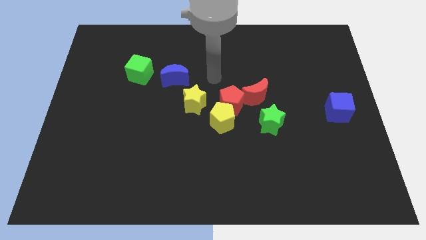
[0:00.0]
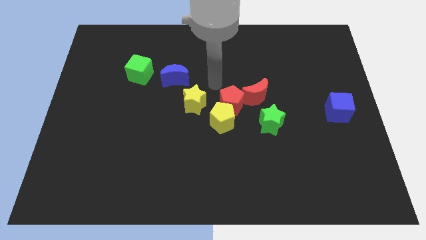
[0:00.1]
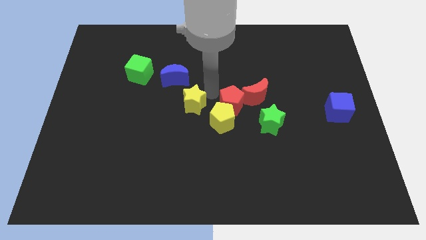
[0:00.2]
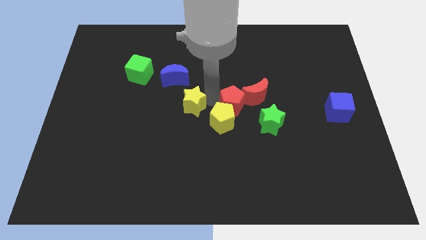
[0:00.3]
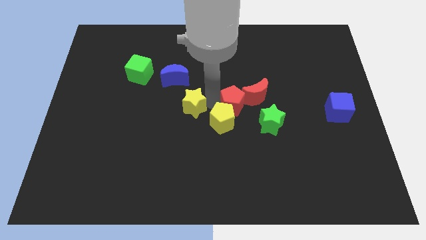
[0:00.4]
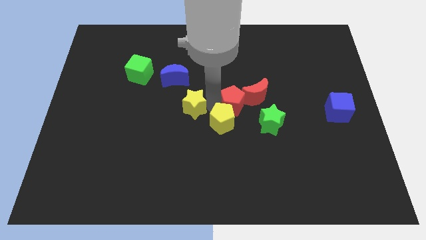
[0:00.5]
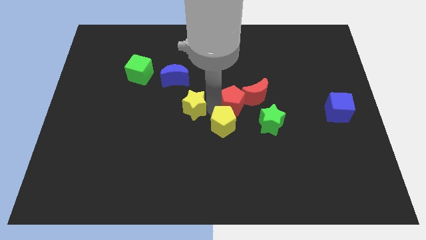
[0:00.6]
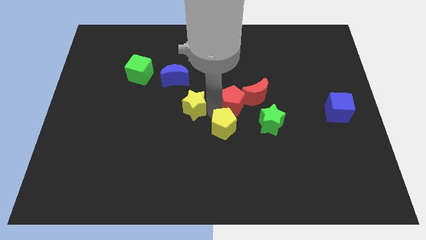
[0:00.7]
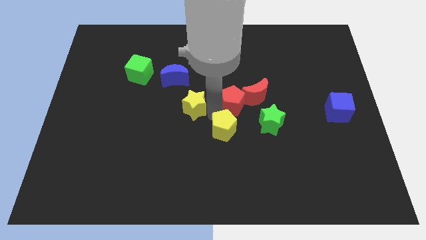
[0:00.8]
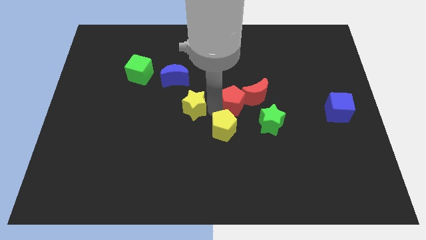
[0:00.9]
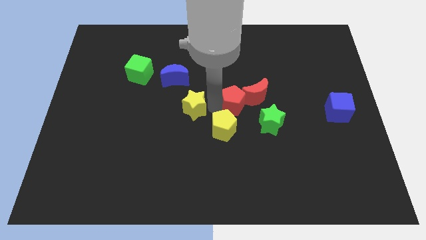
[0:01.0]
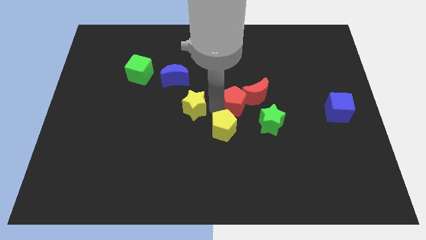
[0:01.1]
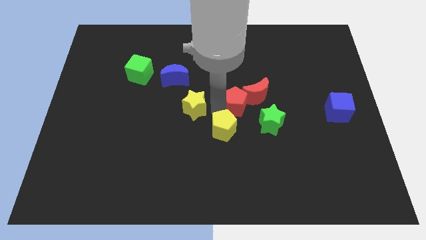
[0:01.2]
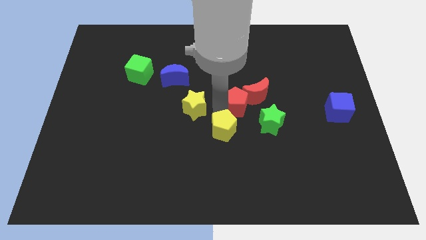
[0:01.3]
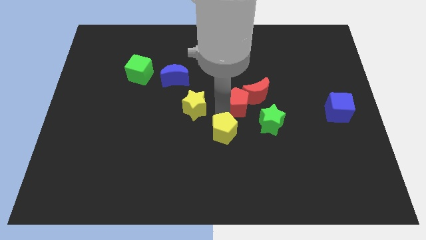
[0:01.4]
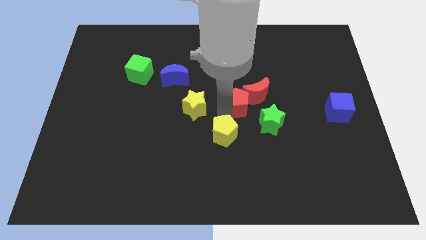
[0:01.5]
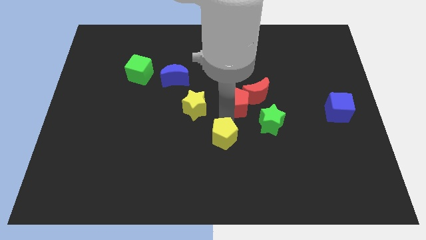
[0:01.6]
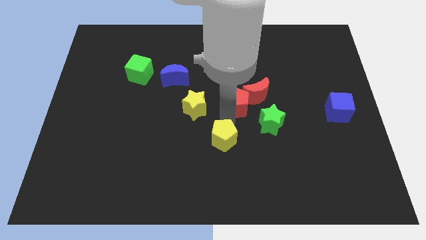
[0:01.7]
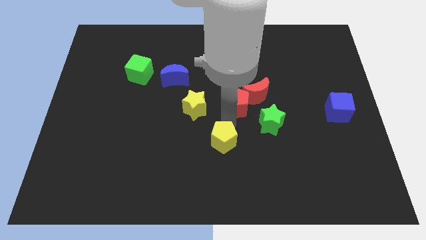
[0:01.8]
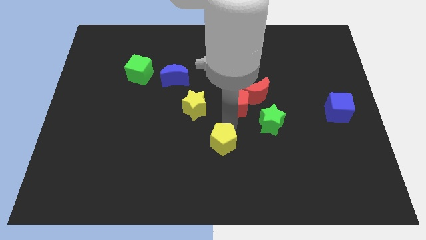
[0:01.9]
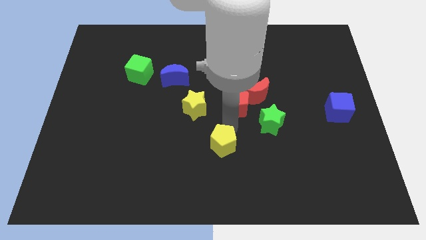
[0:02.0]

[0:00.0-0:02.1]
pull the yellow pentagon apart from the red pentagon and yellow star

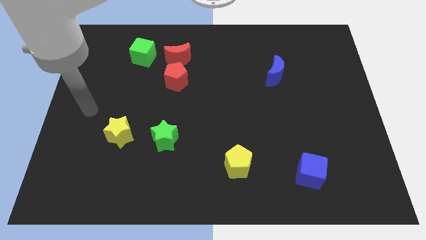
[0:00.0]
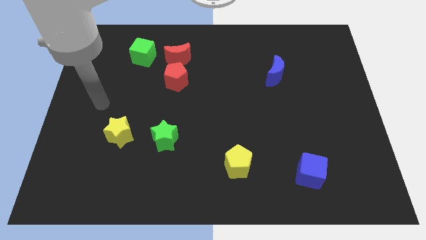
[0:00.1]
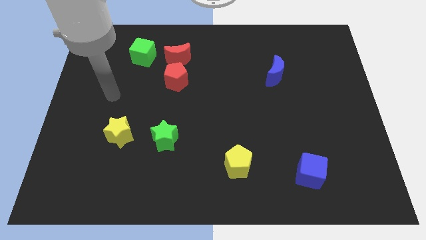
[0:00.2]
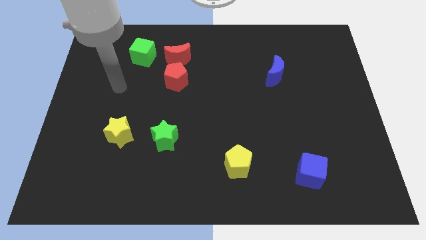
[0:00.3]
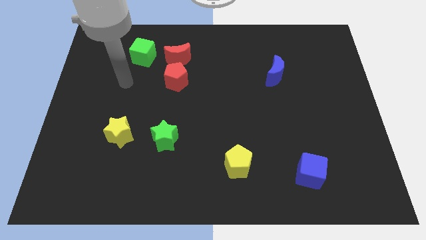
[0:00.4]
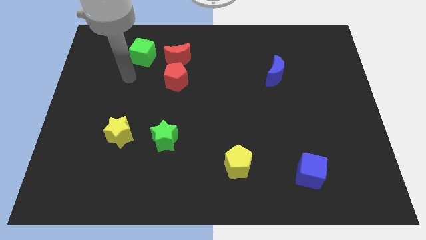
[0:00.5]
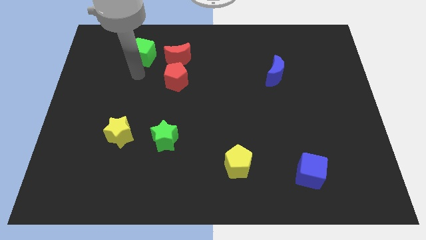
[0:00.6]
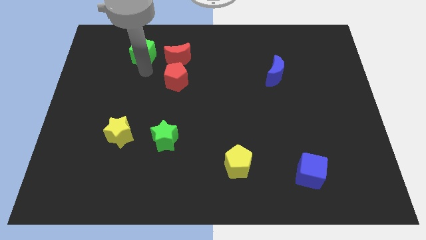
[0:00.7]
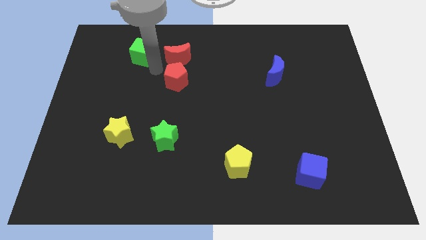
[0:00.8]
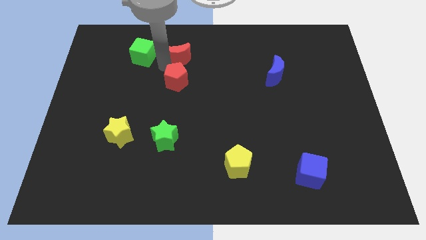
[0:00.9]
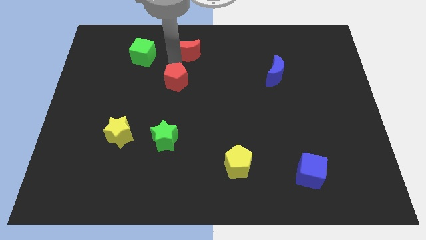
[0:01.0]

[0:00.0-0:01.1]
move the red pentagon away from the red moon

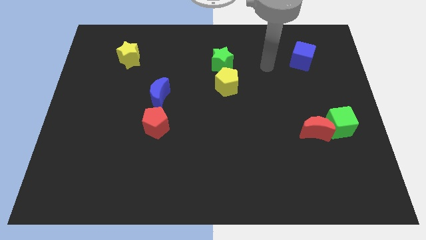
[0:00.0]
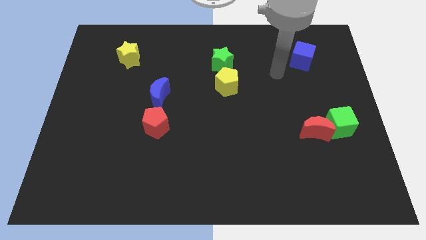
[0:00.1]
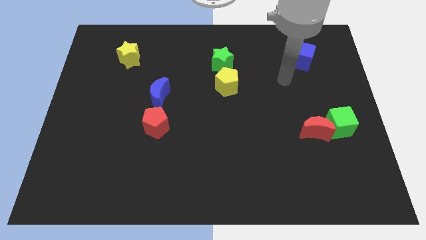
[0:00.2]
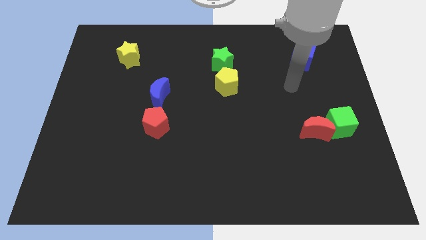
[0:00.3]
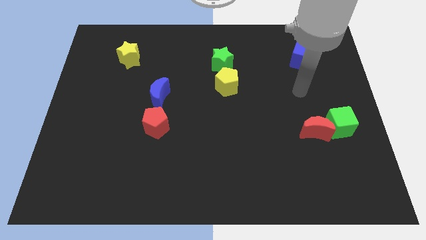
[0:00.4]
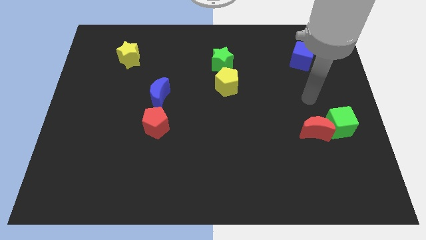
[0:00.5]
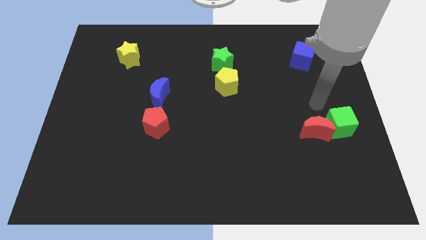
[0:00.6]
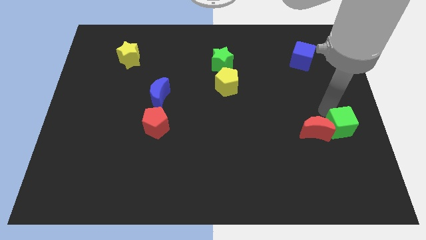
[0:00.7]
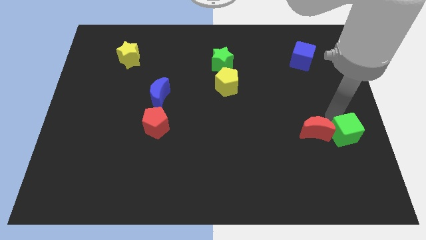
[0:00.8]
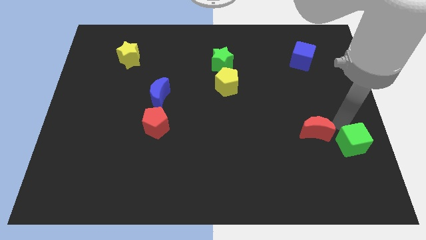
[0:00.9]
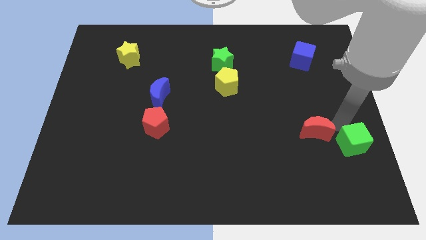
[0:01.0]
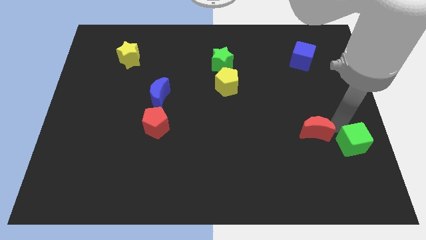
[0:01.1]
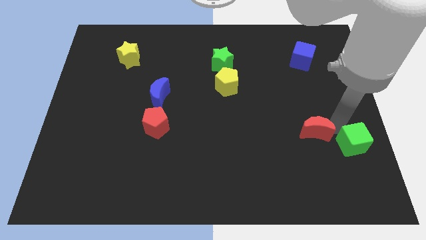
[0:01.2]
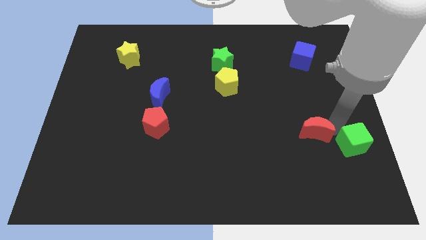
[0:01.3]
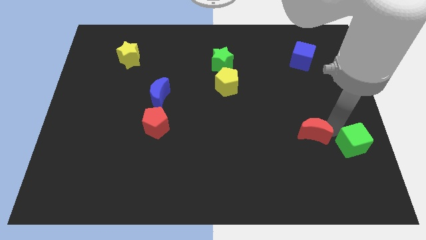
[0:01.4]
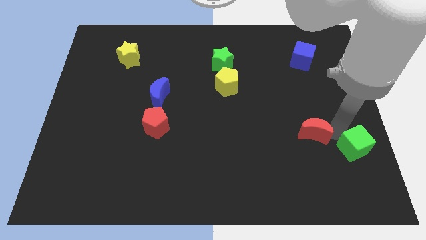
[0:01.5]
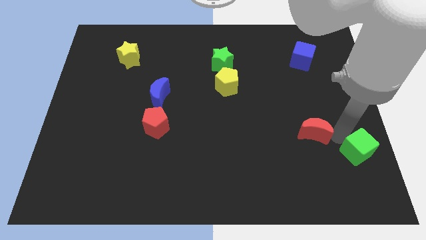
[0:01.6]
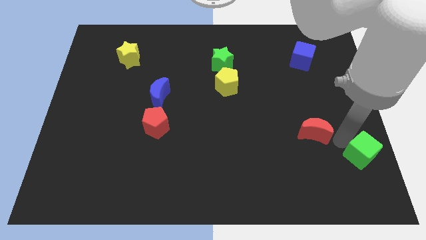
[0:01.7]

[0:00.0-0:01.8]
move the red moon away from the green cube

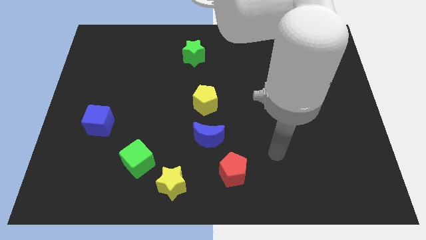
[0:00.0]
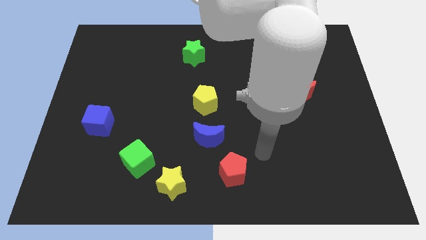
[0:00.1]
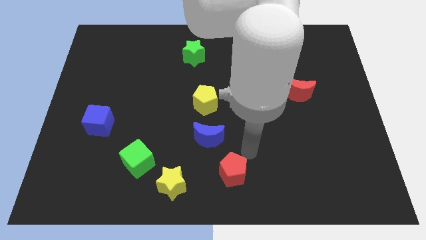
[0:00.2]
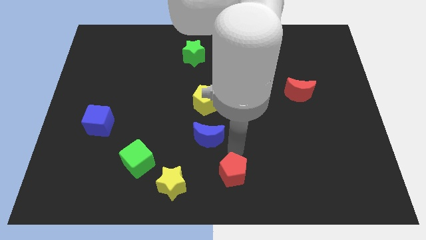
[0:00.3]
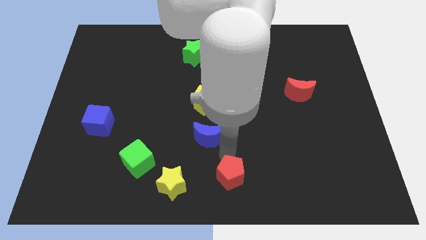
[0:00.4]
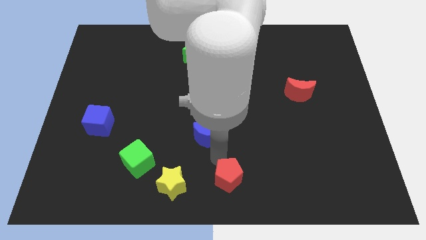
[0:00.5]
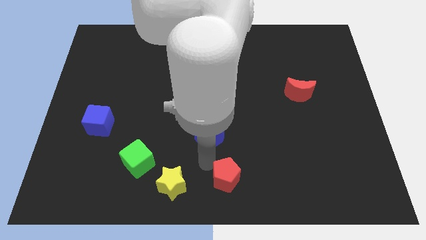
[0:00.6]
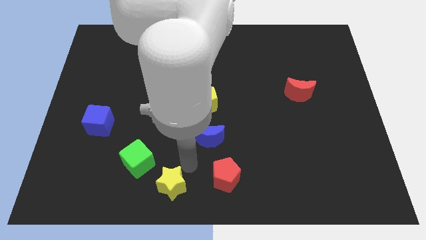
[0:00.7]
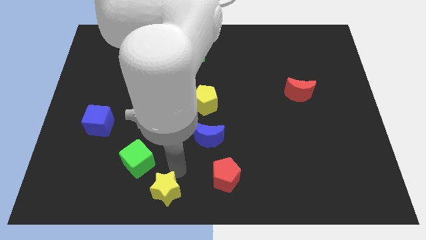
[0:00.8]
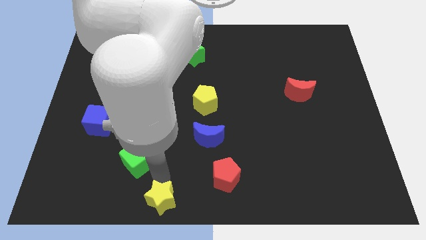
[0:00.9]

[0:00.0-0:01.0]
move the green cube away from the yellow star

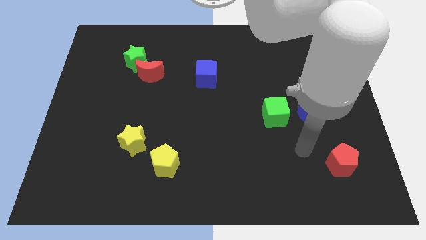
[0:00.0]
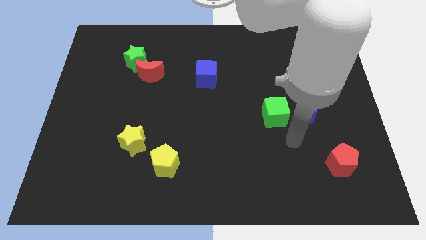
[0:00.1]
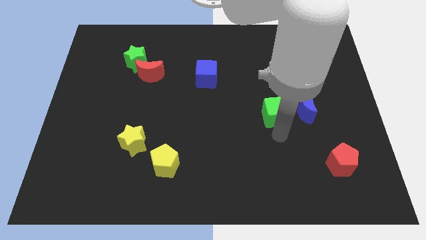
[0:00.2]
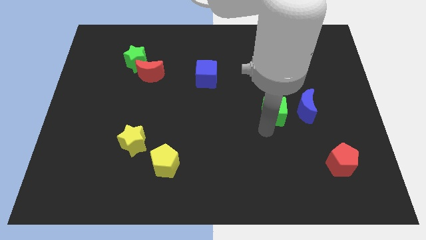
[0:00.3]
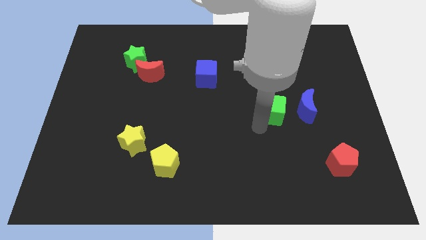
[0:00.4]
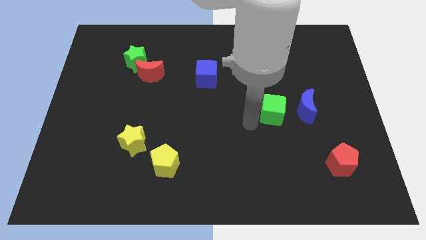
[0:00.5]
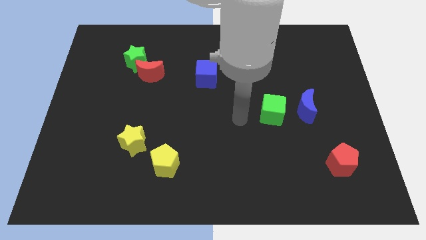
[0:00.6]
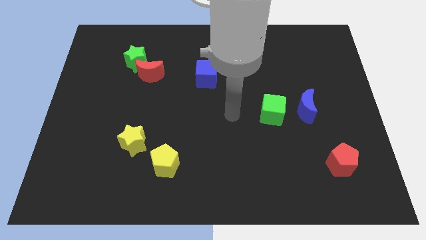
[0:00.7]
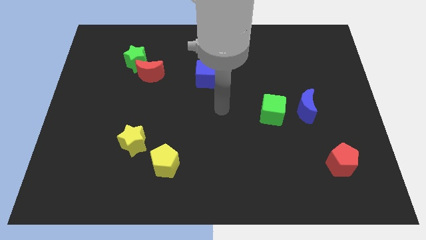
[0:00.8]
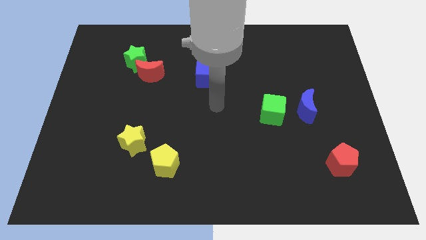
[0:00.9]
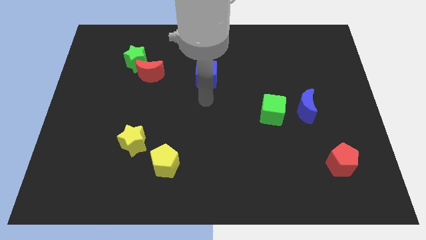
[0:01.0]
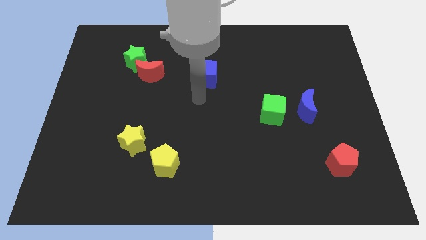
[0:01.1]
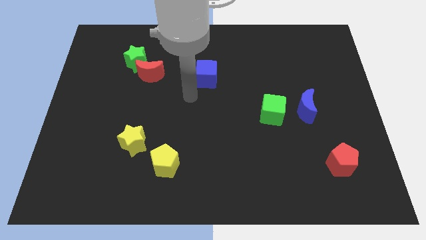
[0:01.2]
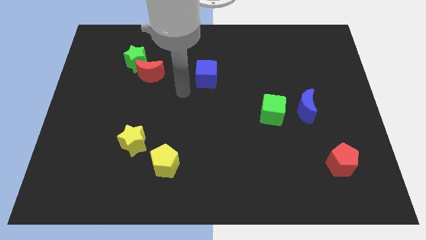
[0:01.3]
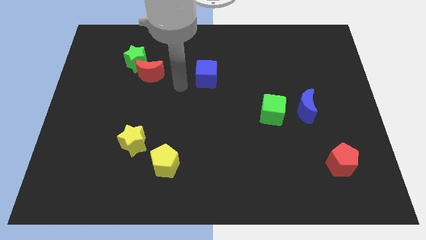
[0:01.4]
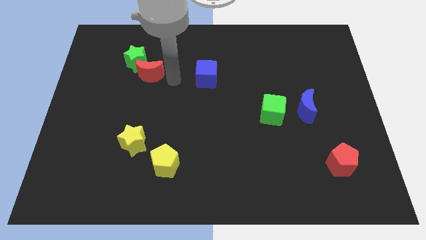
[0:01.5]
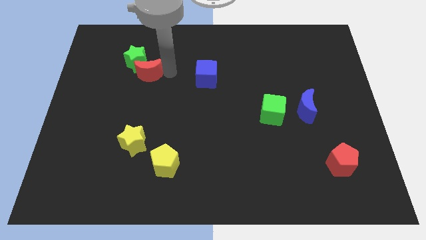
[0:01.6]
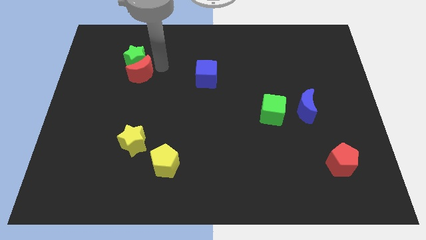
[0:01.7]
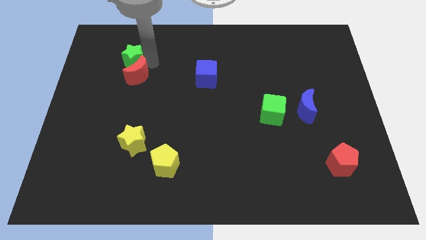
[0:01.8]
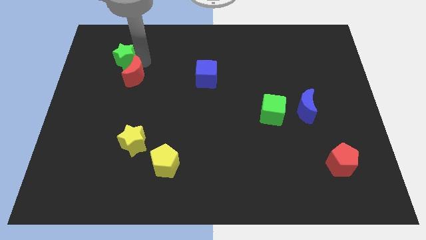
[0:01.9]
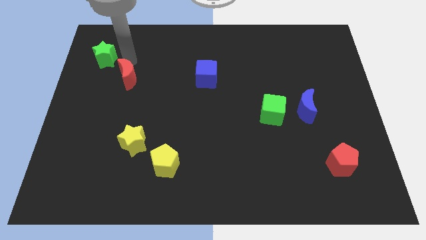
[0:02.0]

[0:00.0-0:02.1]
move the red moon away from the green star

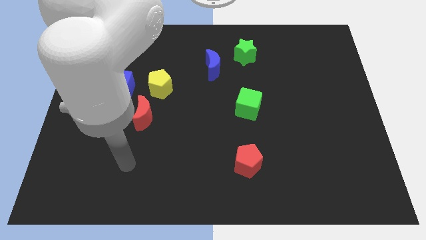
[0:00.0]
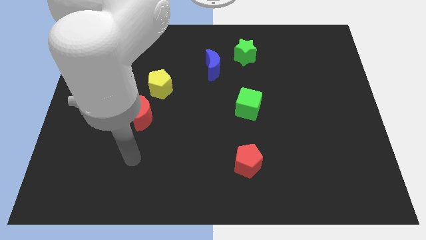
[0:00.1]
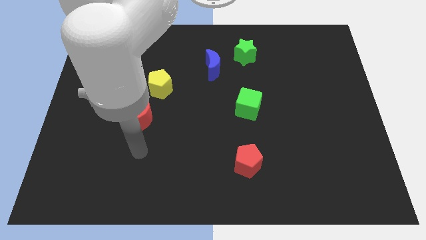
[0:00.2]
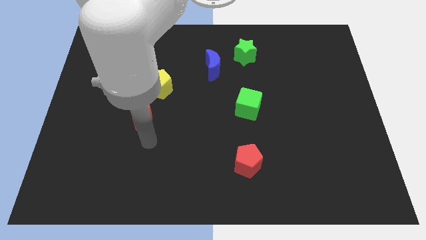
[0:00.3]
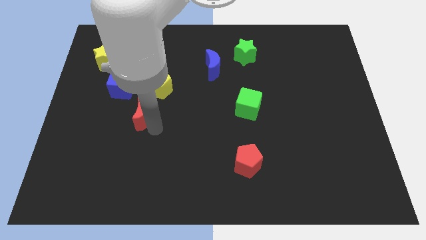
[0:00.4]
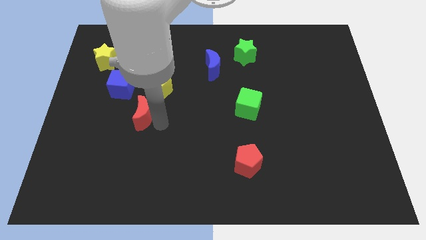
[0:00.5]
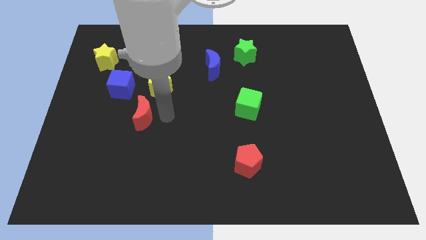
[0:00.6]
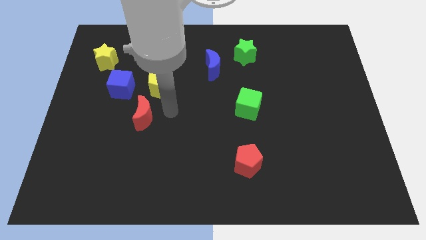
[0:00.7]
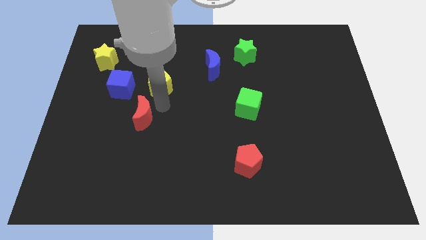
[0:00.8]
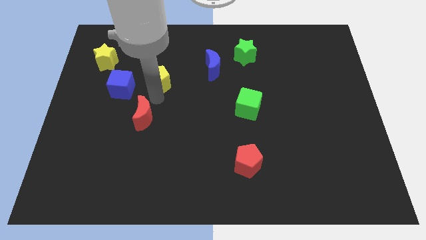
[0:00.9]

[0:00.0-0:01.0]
pull the red moon apart from the yellow pentagon

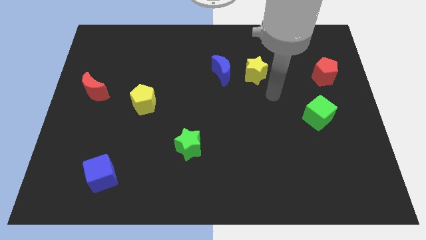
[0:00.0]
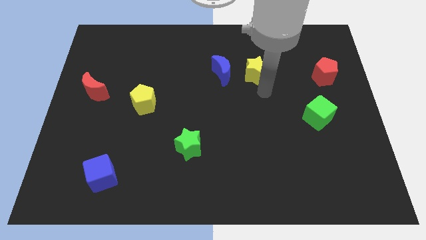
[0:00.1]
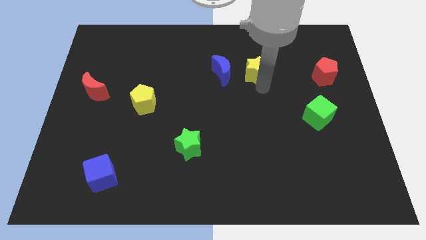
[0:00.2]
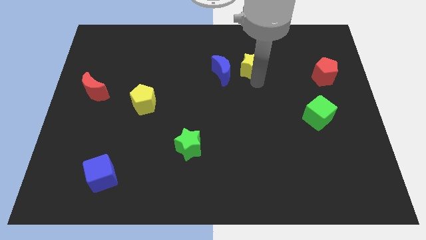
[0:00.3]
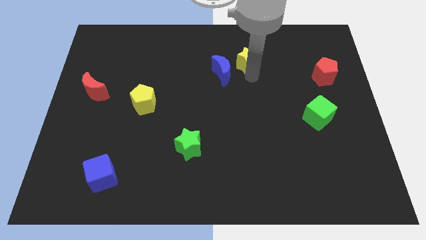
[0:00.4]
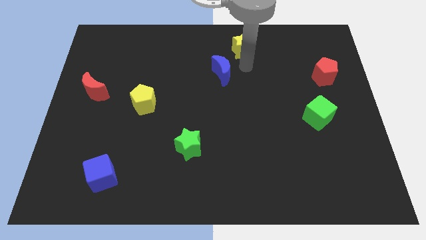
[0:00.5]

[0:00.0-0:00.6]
pull the blue moon apart from the yellow star
